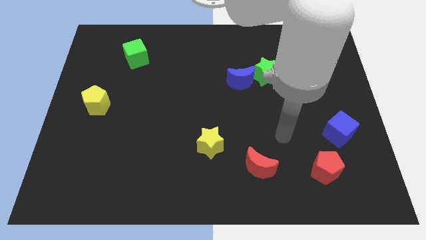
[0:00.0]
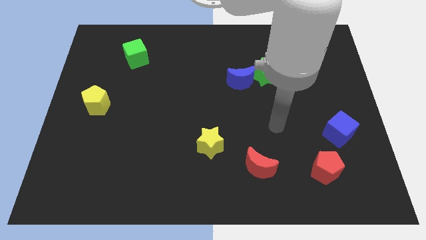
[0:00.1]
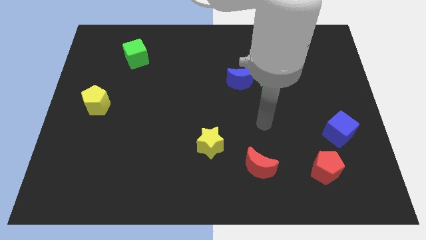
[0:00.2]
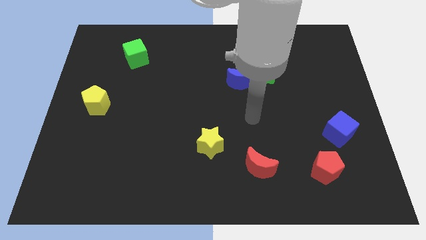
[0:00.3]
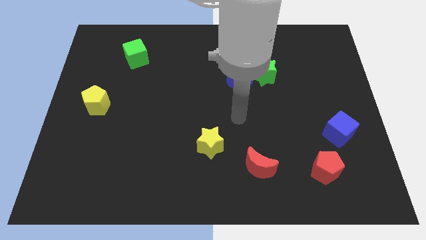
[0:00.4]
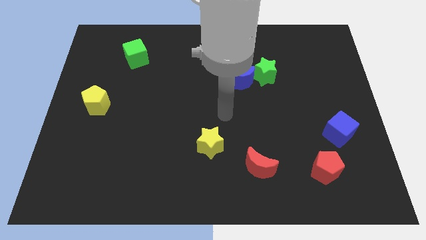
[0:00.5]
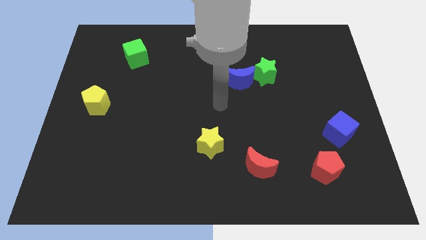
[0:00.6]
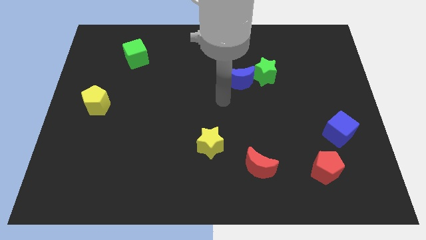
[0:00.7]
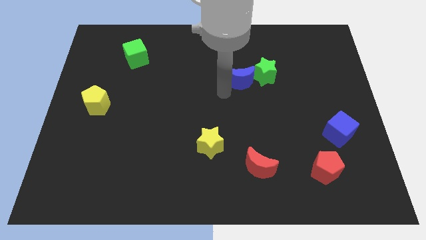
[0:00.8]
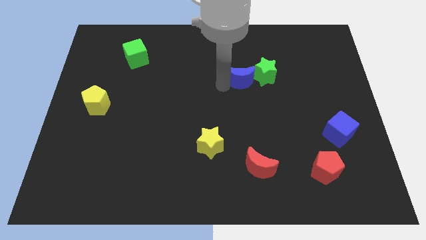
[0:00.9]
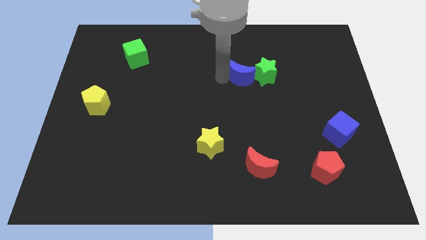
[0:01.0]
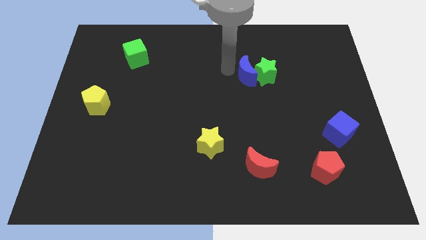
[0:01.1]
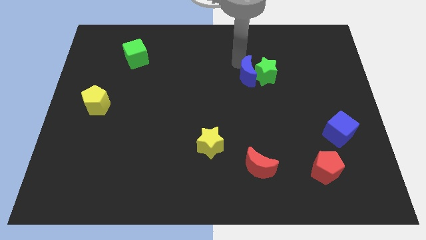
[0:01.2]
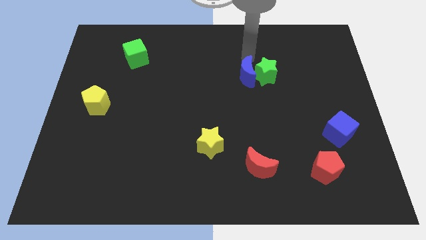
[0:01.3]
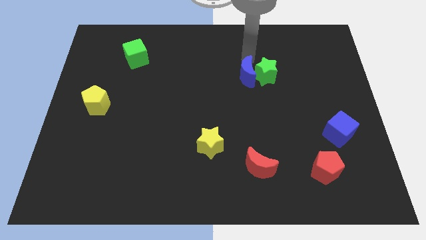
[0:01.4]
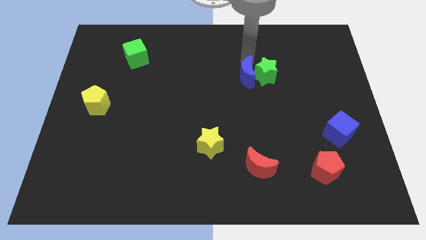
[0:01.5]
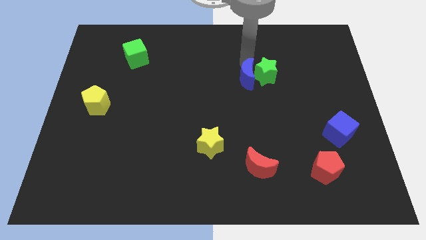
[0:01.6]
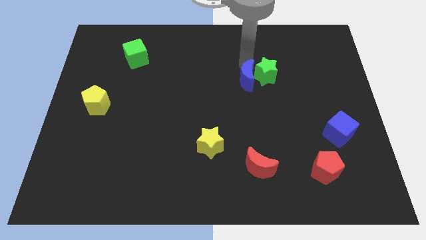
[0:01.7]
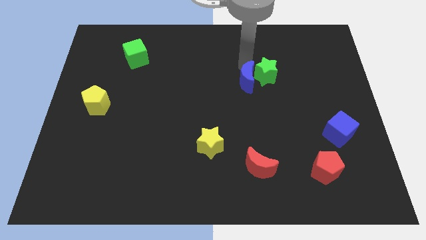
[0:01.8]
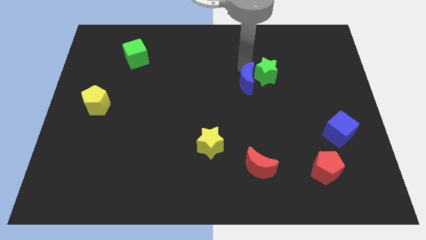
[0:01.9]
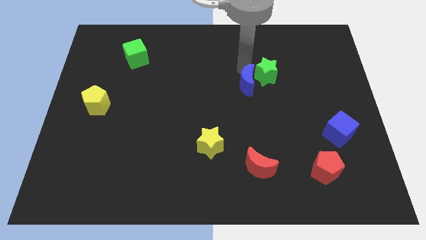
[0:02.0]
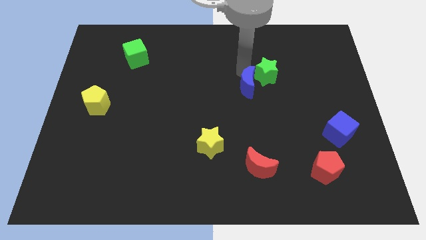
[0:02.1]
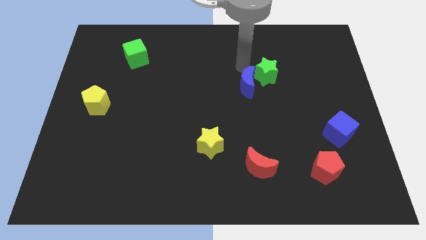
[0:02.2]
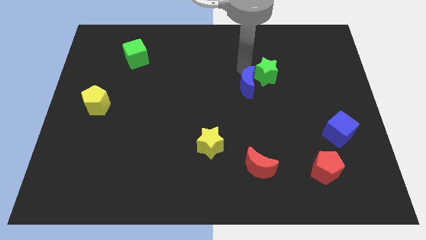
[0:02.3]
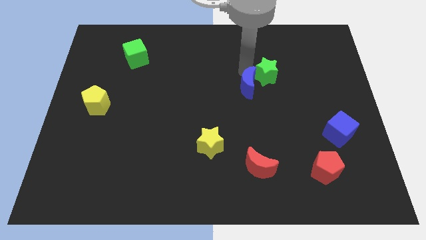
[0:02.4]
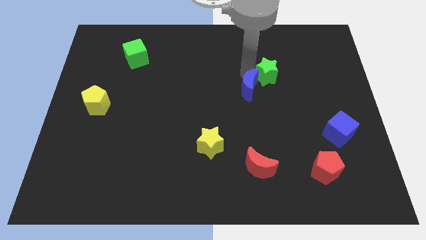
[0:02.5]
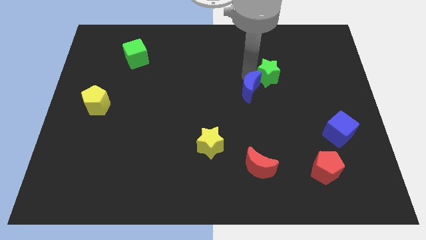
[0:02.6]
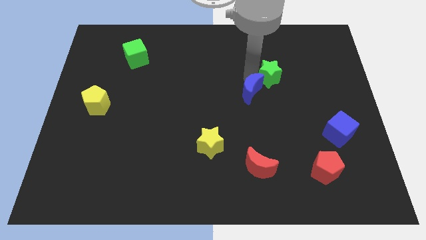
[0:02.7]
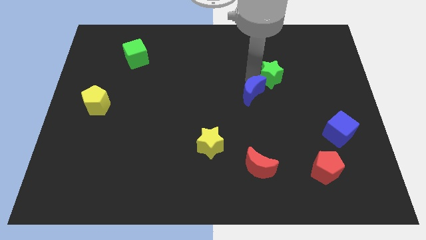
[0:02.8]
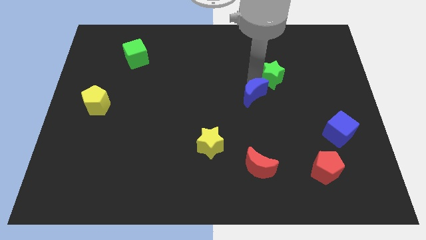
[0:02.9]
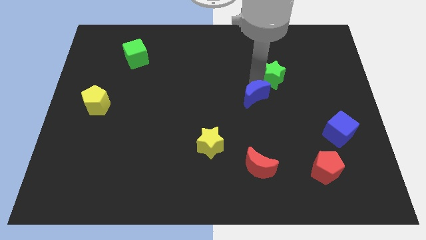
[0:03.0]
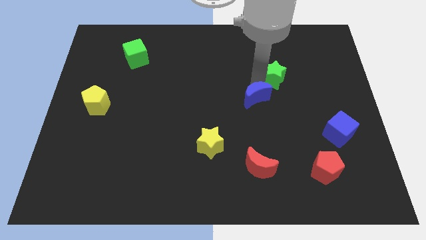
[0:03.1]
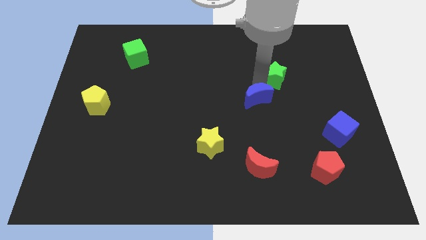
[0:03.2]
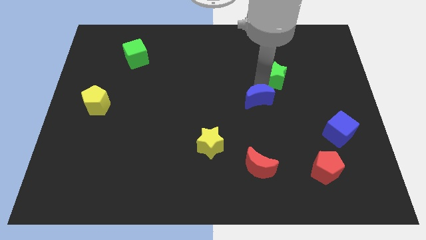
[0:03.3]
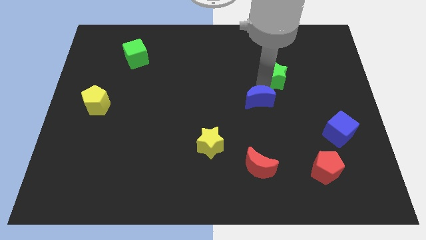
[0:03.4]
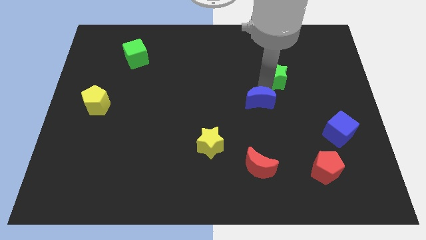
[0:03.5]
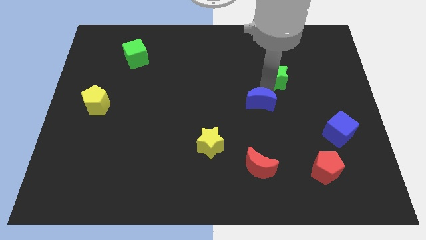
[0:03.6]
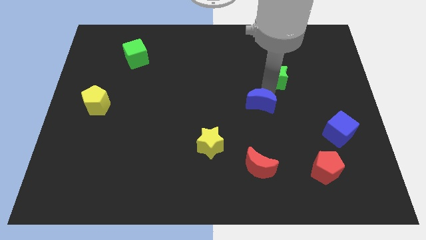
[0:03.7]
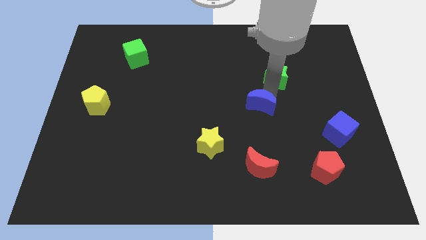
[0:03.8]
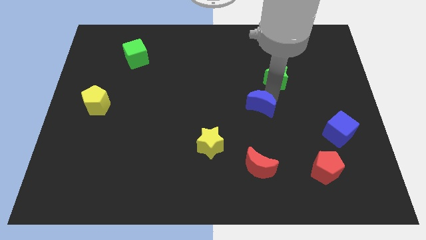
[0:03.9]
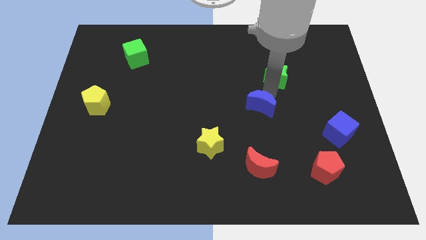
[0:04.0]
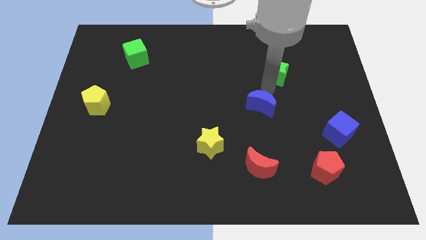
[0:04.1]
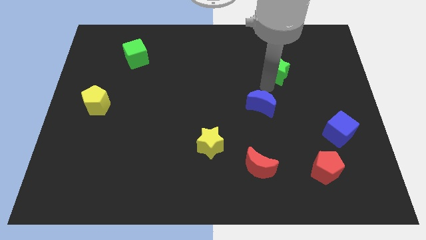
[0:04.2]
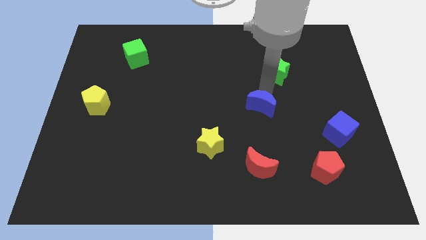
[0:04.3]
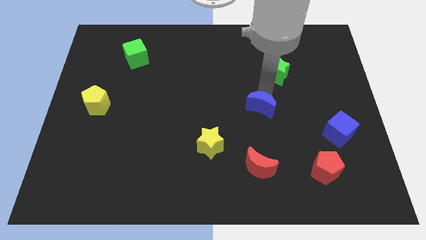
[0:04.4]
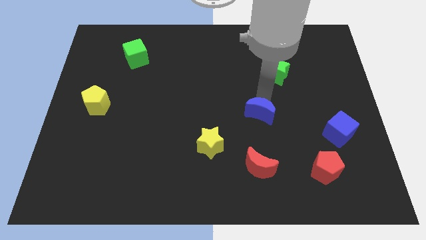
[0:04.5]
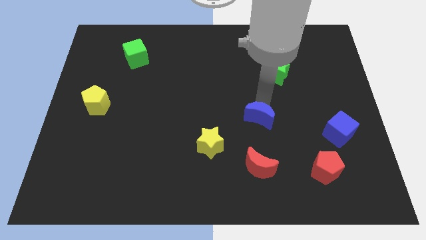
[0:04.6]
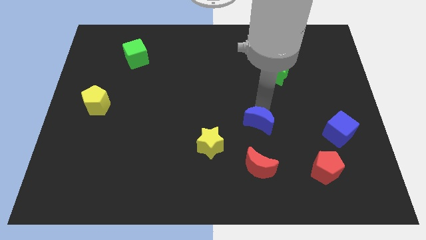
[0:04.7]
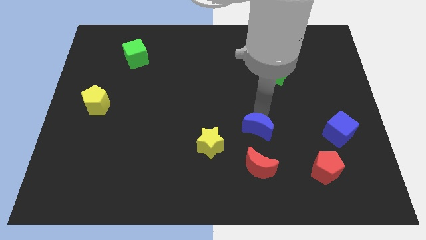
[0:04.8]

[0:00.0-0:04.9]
move the blue moon just right of the yellow star

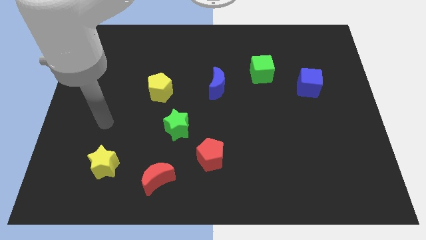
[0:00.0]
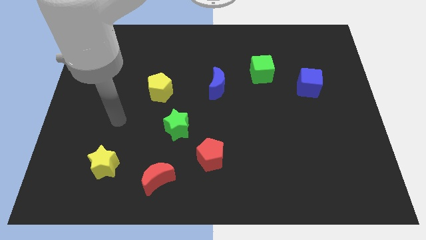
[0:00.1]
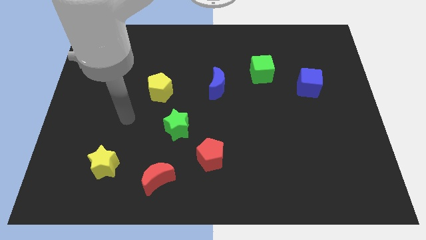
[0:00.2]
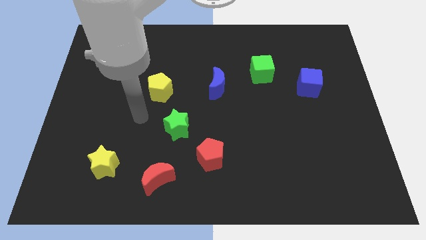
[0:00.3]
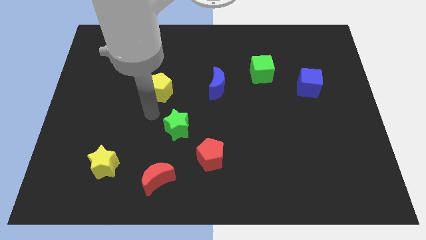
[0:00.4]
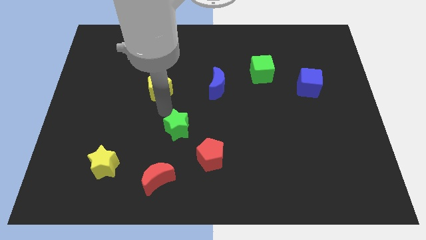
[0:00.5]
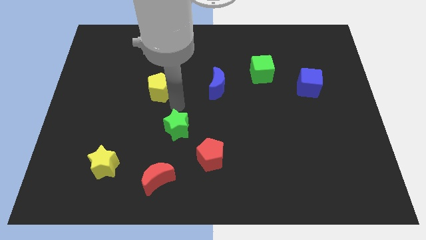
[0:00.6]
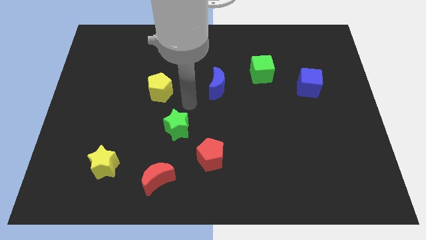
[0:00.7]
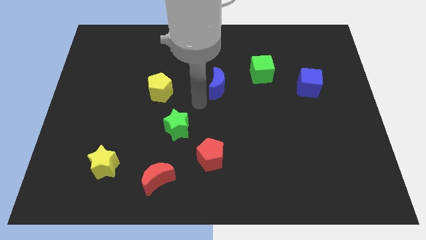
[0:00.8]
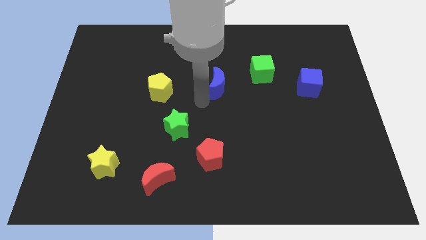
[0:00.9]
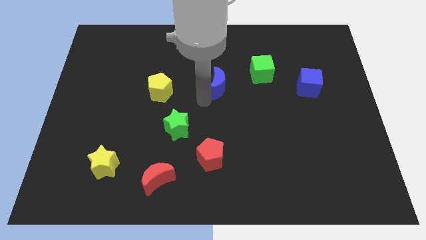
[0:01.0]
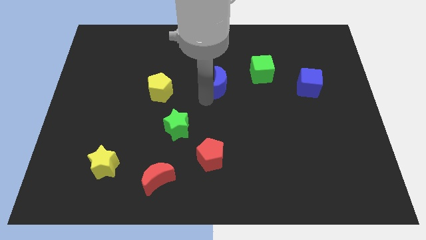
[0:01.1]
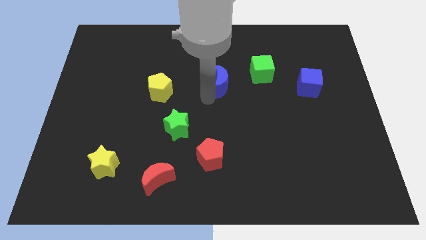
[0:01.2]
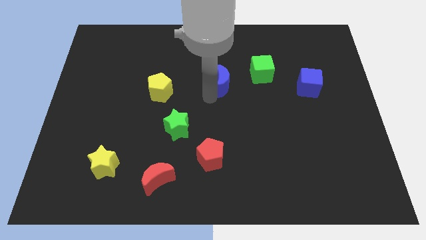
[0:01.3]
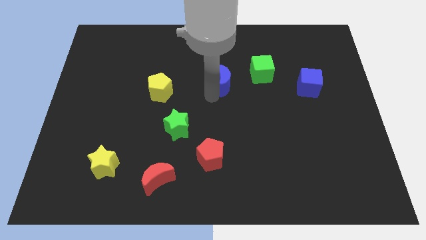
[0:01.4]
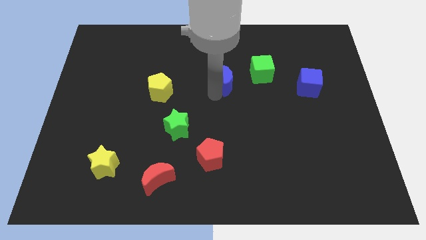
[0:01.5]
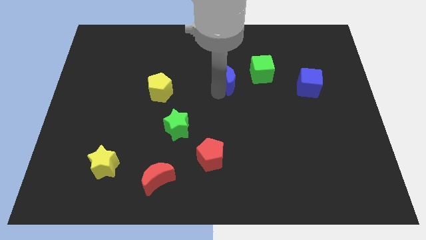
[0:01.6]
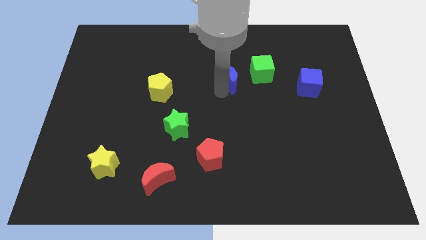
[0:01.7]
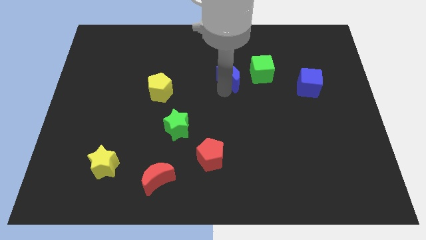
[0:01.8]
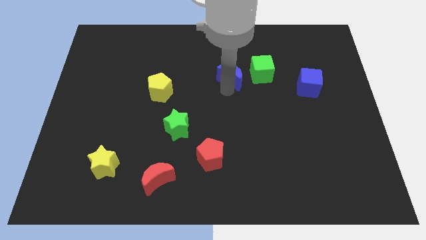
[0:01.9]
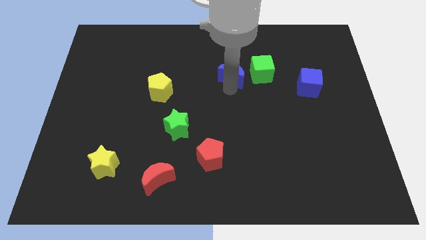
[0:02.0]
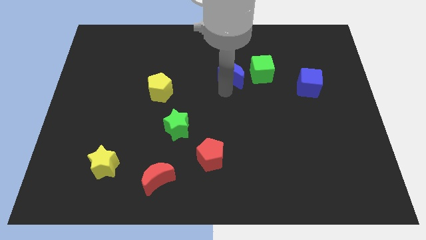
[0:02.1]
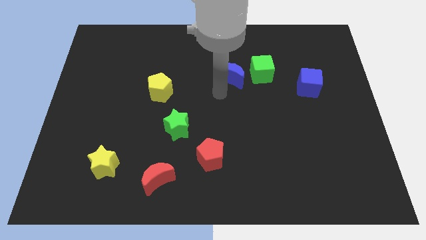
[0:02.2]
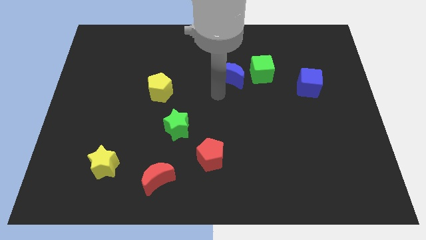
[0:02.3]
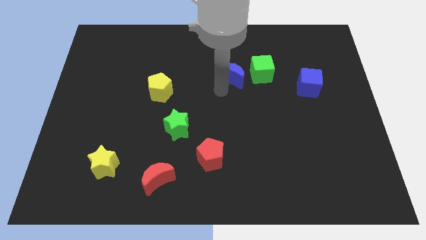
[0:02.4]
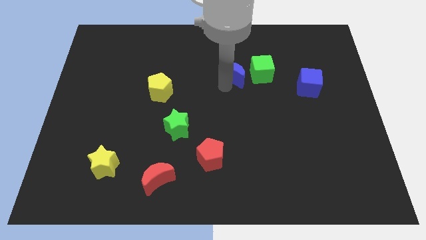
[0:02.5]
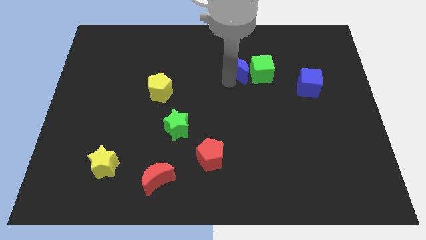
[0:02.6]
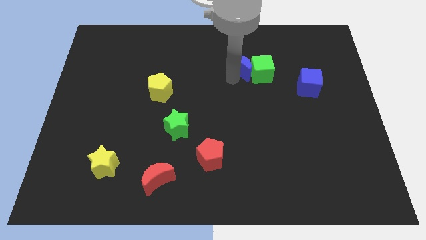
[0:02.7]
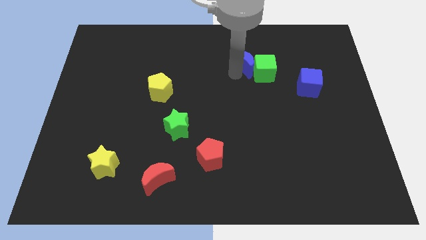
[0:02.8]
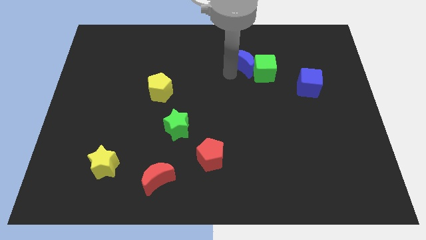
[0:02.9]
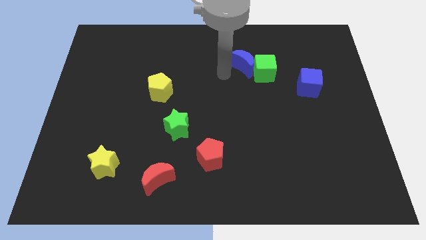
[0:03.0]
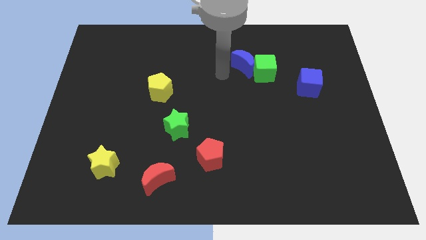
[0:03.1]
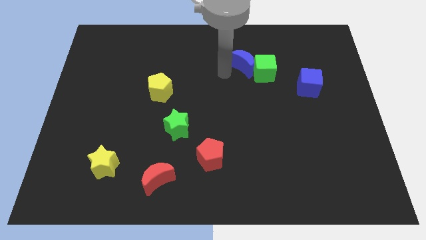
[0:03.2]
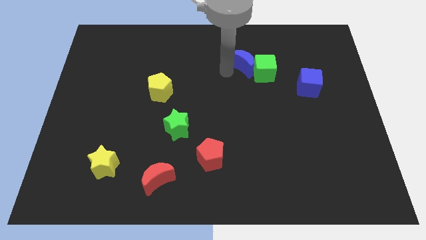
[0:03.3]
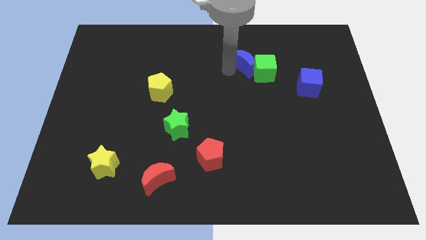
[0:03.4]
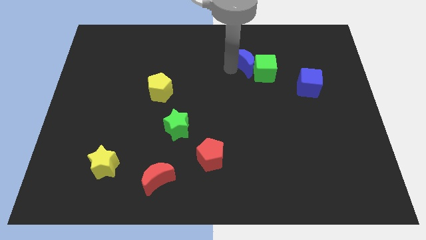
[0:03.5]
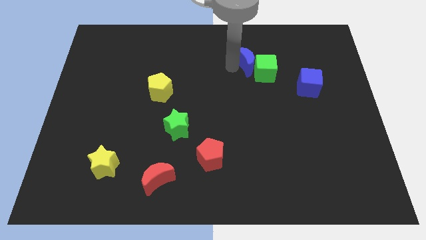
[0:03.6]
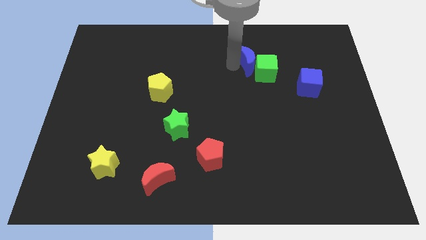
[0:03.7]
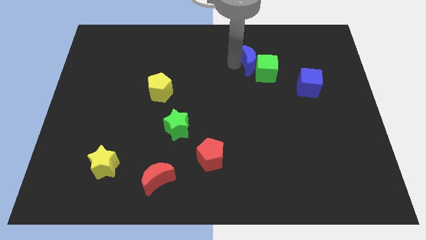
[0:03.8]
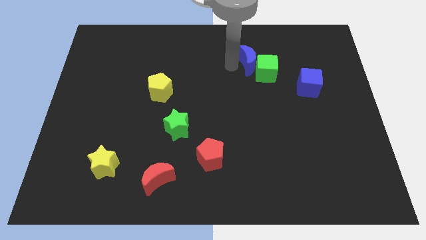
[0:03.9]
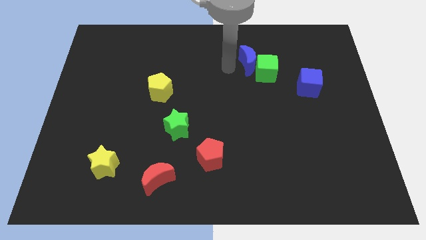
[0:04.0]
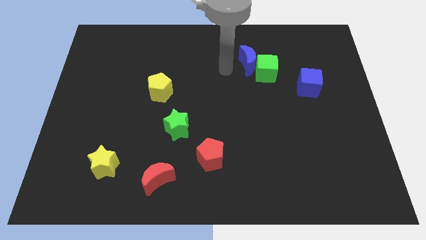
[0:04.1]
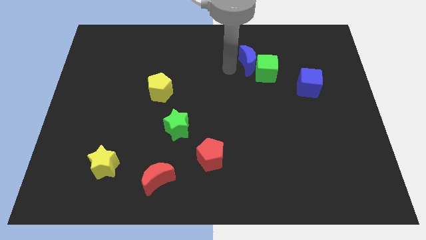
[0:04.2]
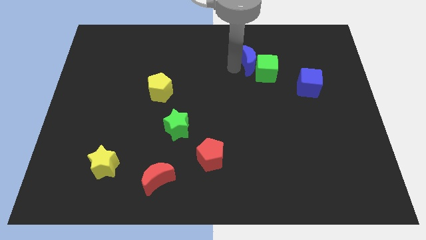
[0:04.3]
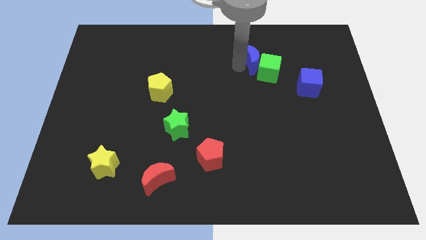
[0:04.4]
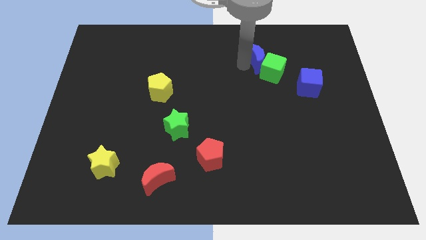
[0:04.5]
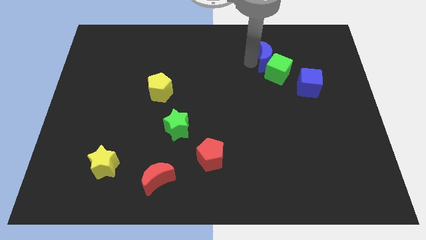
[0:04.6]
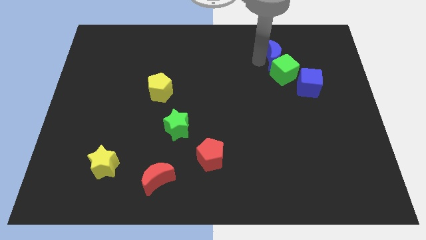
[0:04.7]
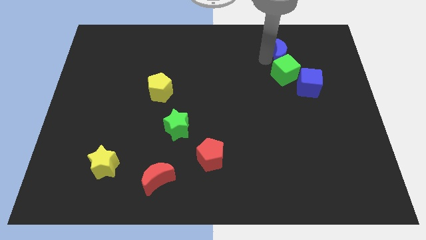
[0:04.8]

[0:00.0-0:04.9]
move the blue moon diagonally up and to the right of the green cube
